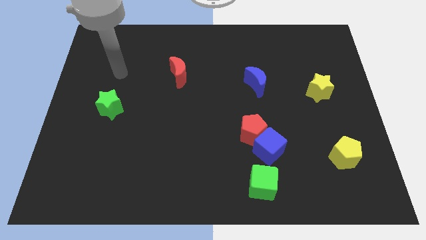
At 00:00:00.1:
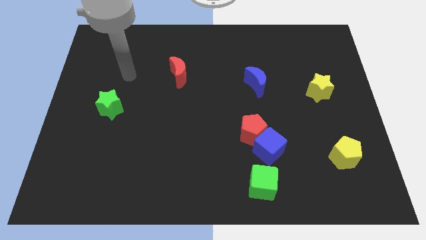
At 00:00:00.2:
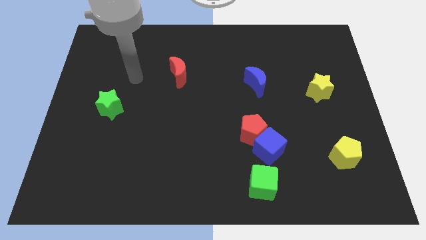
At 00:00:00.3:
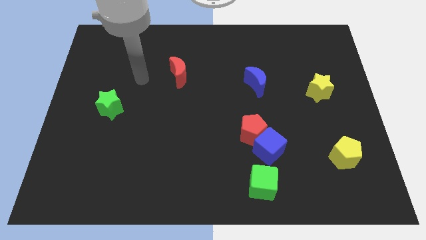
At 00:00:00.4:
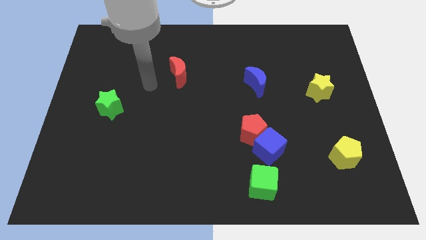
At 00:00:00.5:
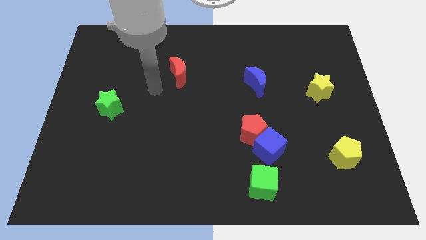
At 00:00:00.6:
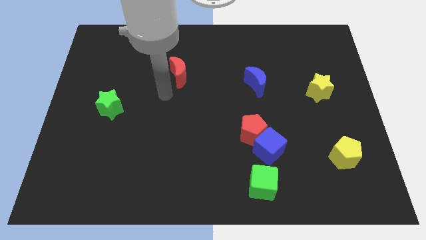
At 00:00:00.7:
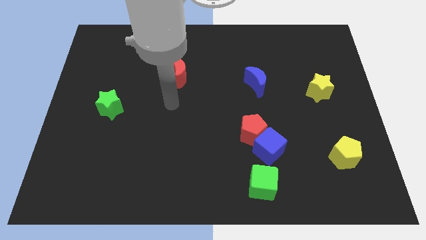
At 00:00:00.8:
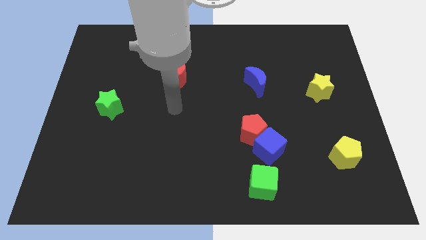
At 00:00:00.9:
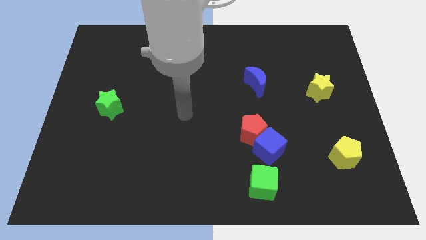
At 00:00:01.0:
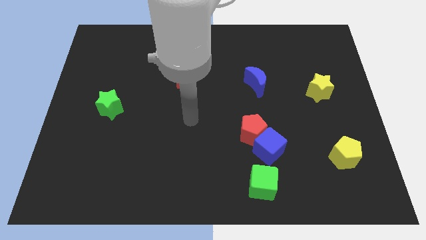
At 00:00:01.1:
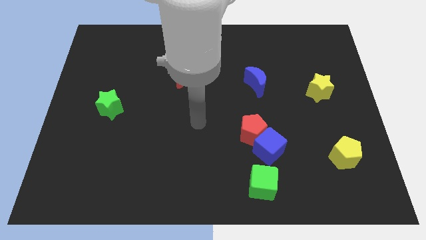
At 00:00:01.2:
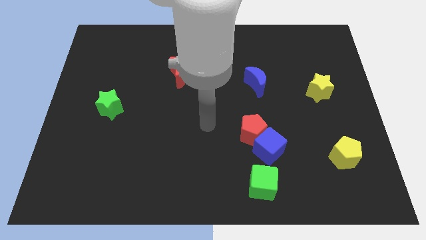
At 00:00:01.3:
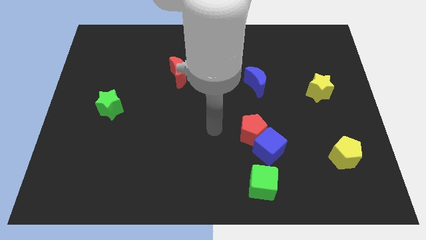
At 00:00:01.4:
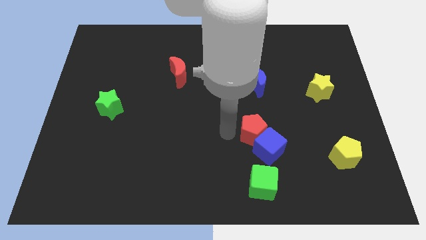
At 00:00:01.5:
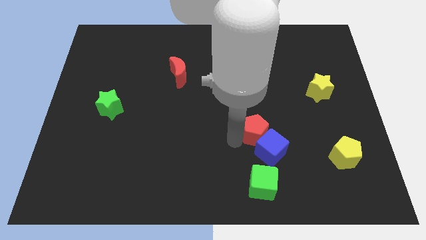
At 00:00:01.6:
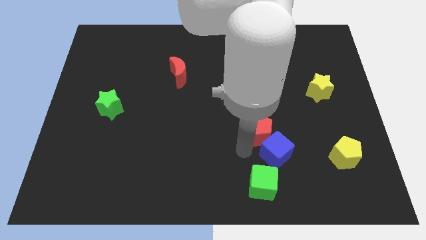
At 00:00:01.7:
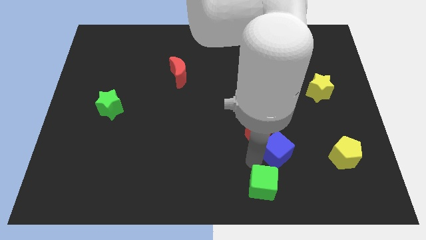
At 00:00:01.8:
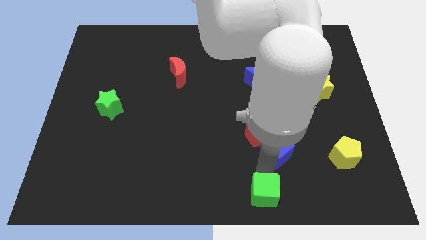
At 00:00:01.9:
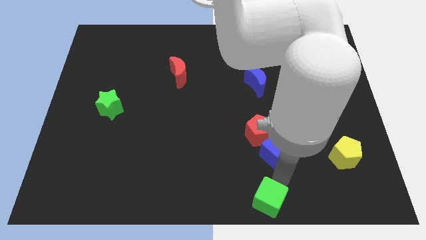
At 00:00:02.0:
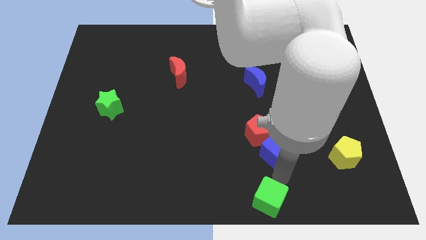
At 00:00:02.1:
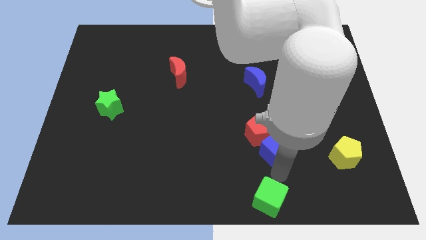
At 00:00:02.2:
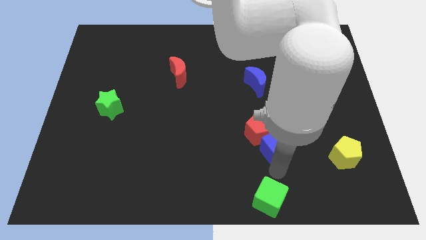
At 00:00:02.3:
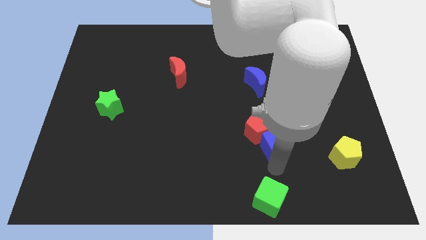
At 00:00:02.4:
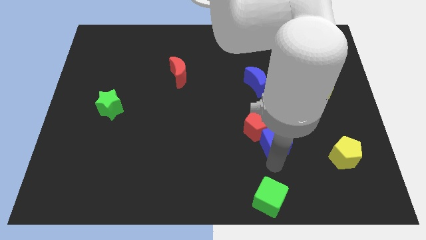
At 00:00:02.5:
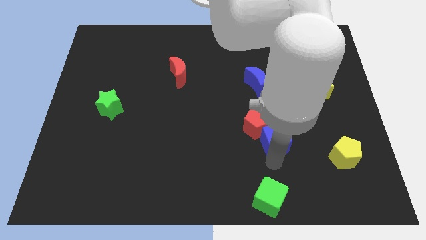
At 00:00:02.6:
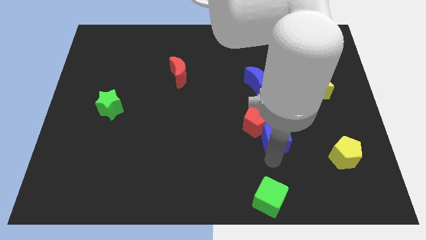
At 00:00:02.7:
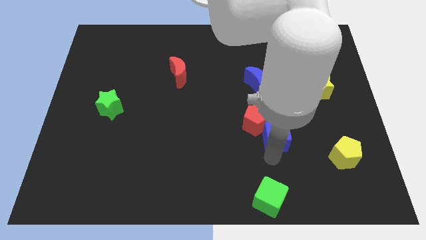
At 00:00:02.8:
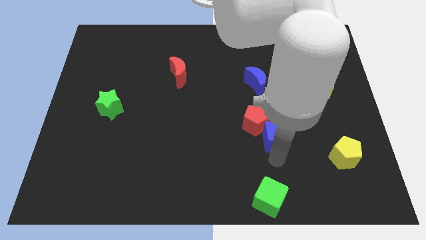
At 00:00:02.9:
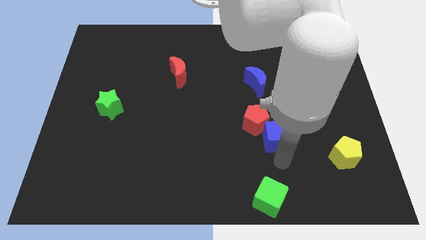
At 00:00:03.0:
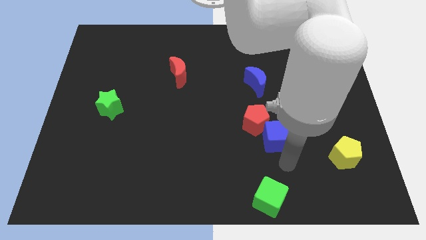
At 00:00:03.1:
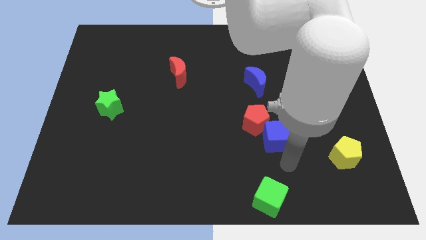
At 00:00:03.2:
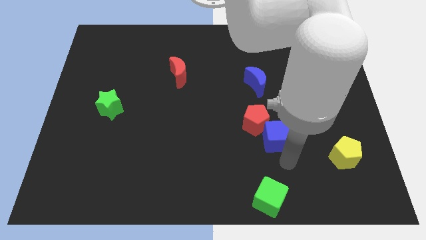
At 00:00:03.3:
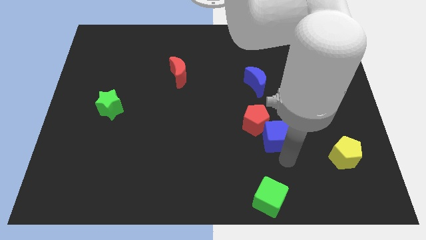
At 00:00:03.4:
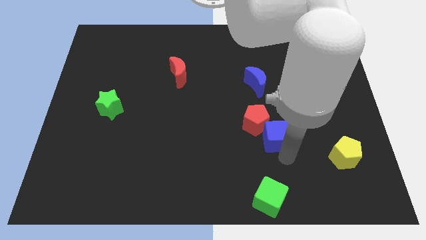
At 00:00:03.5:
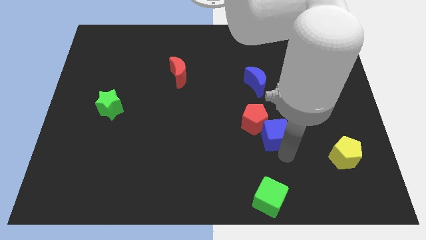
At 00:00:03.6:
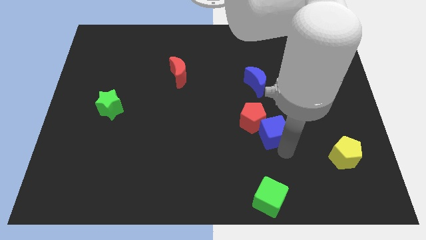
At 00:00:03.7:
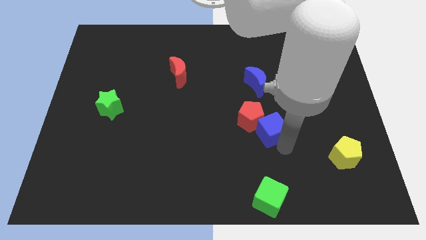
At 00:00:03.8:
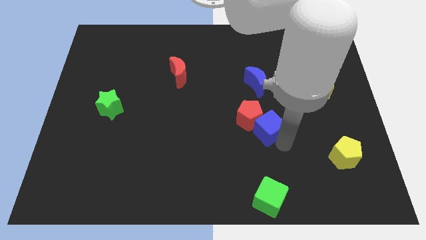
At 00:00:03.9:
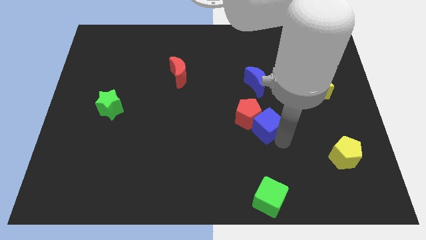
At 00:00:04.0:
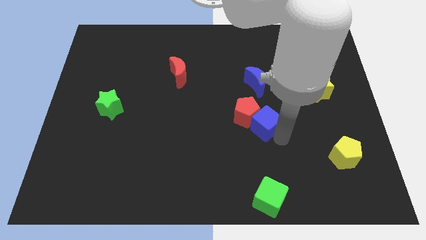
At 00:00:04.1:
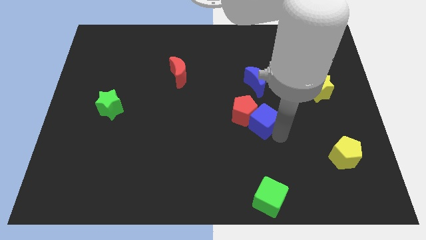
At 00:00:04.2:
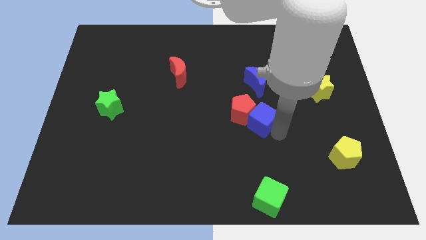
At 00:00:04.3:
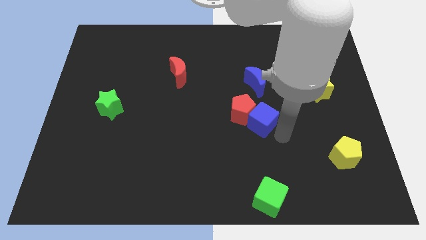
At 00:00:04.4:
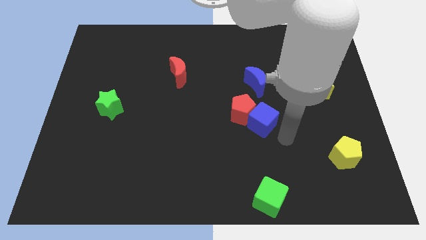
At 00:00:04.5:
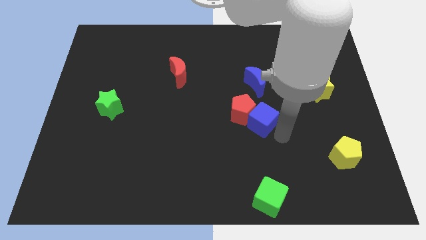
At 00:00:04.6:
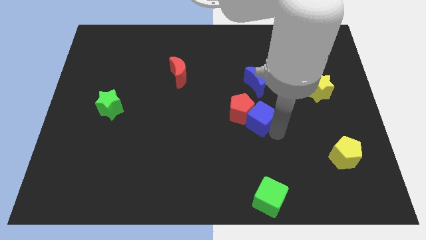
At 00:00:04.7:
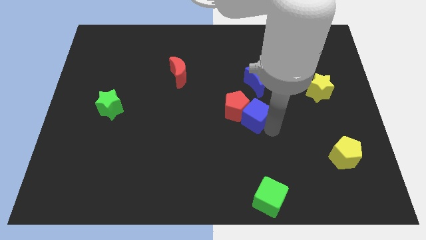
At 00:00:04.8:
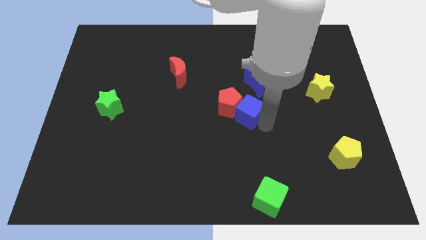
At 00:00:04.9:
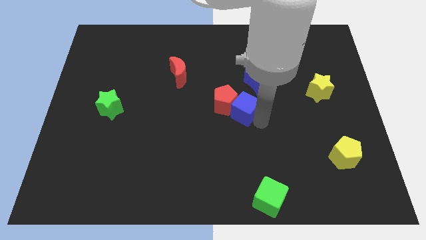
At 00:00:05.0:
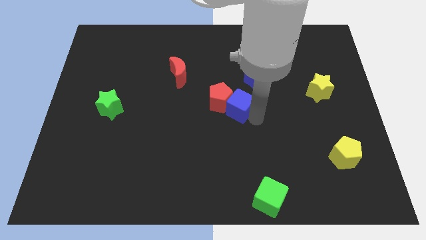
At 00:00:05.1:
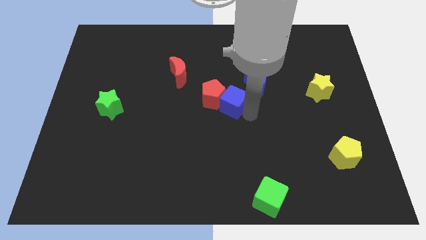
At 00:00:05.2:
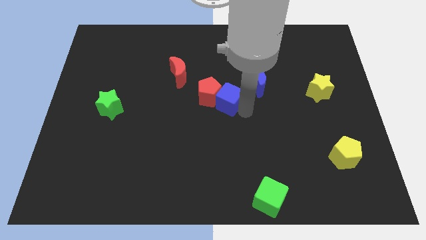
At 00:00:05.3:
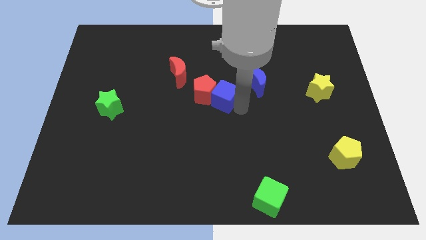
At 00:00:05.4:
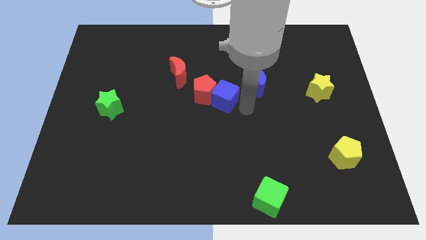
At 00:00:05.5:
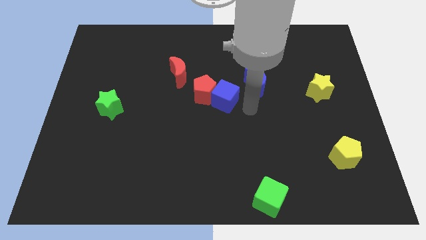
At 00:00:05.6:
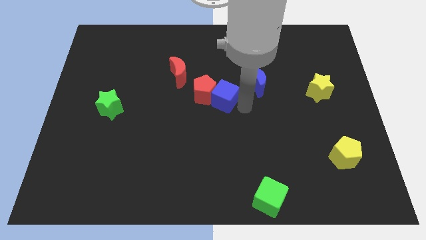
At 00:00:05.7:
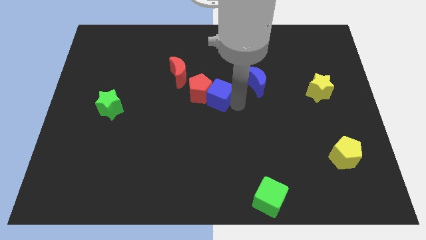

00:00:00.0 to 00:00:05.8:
move the blue cube diagonally down and to the right of the red moon
